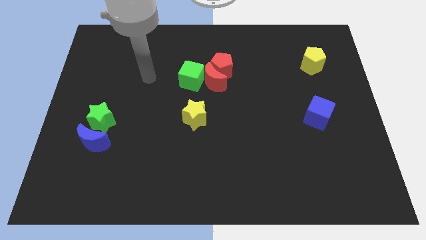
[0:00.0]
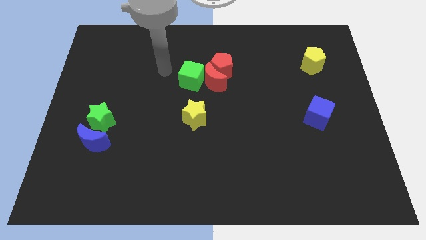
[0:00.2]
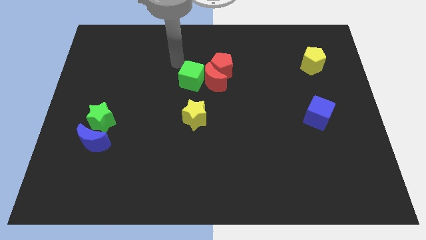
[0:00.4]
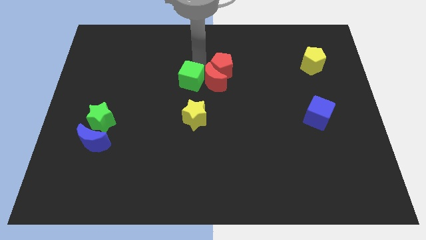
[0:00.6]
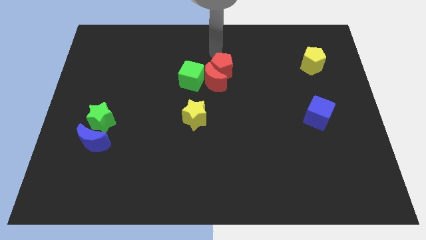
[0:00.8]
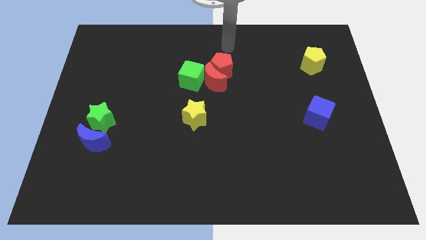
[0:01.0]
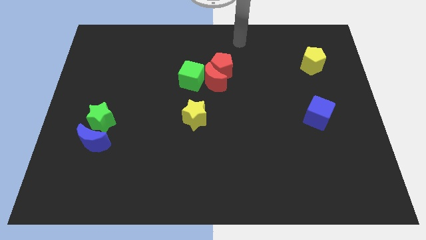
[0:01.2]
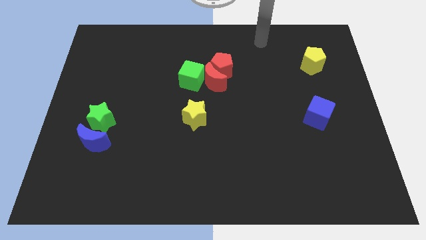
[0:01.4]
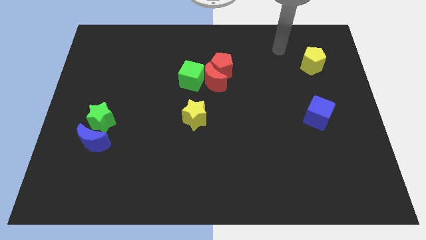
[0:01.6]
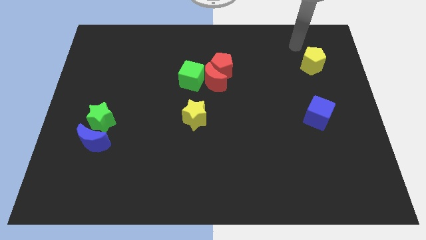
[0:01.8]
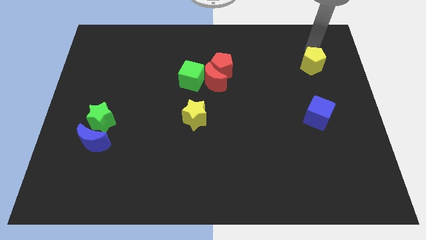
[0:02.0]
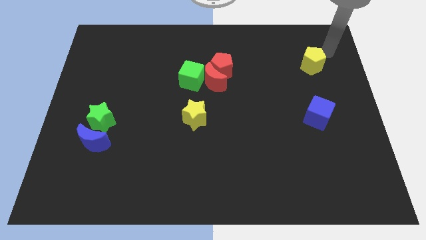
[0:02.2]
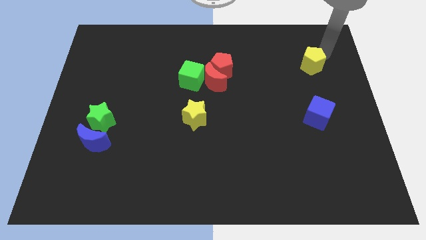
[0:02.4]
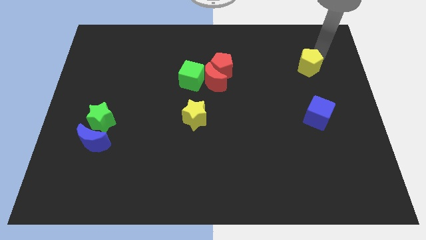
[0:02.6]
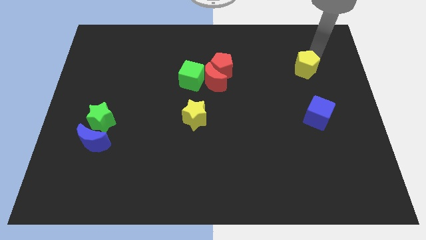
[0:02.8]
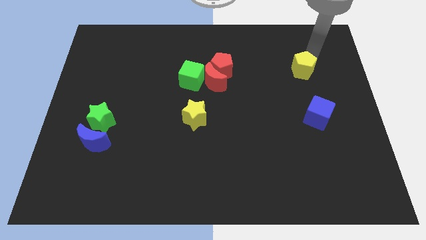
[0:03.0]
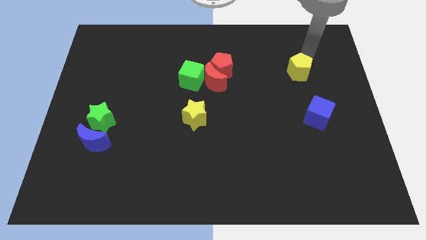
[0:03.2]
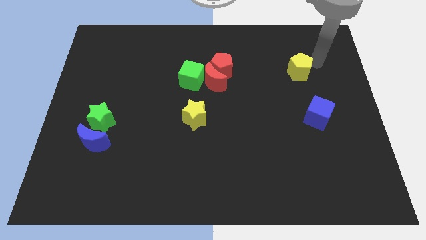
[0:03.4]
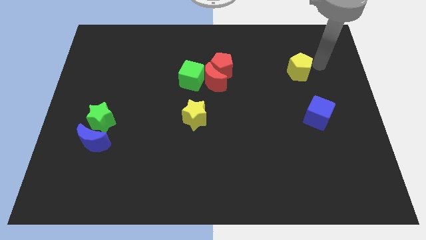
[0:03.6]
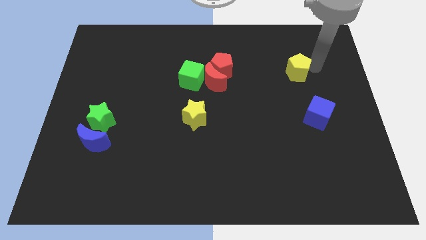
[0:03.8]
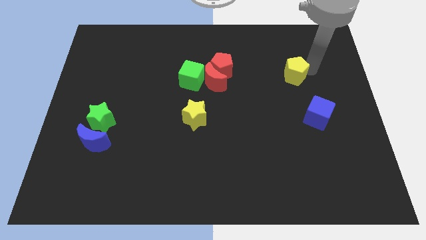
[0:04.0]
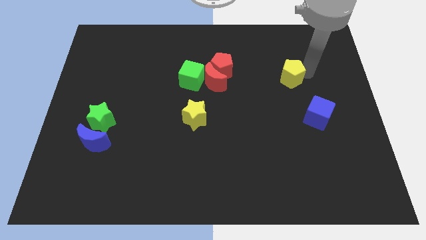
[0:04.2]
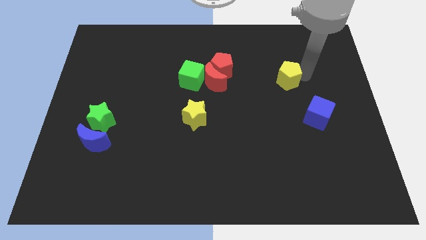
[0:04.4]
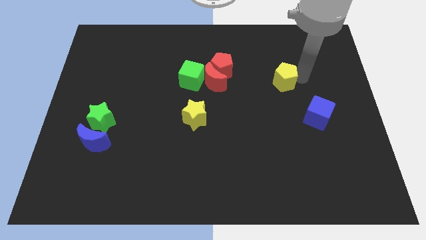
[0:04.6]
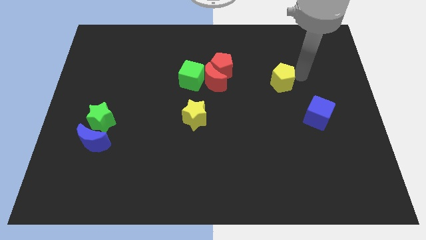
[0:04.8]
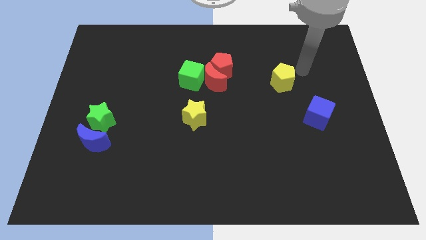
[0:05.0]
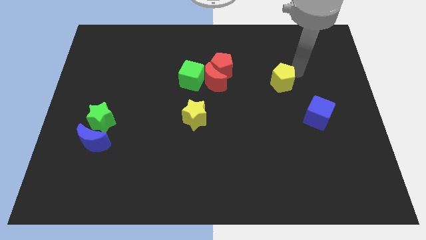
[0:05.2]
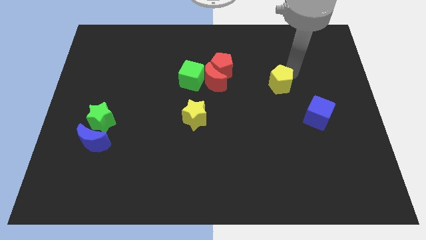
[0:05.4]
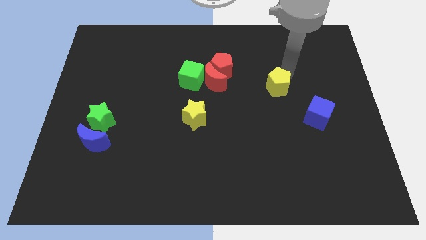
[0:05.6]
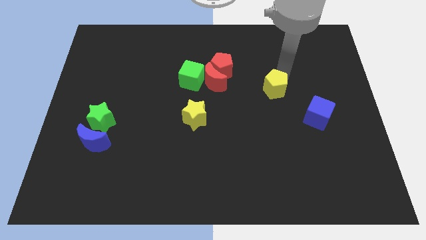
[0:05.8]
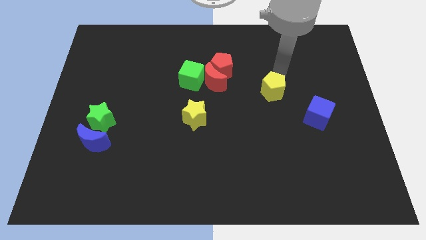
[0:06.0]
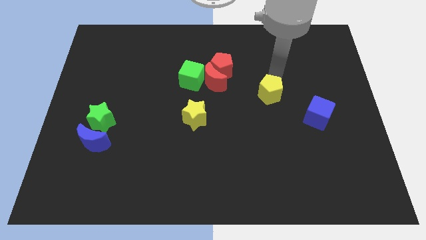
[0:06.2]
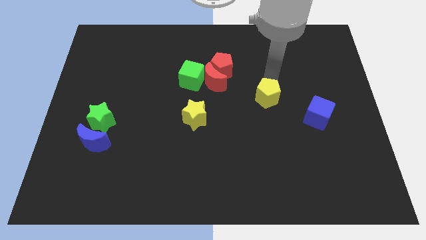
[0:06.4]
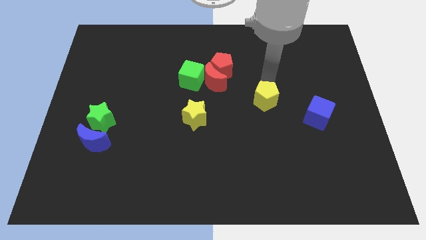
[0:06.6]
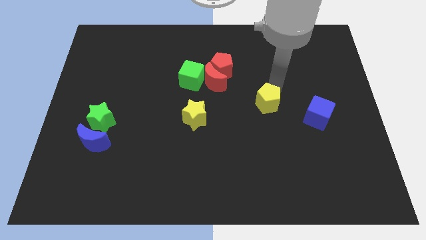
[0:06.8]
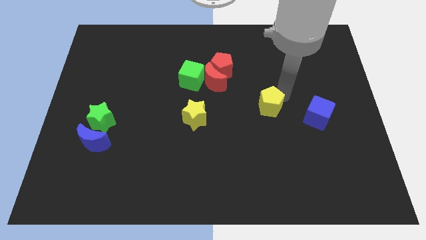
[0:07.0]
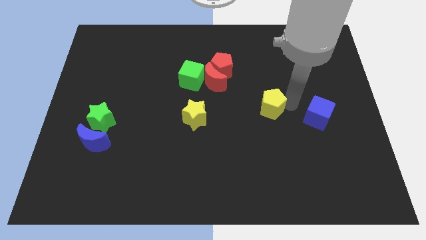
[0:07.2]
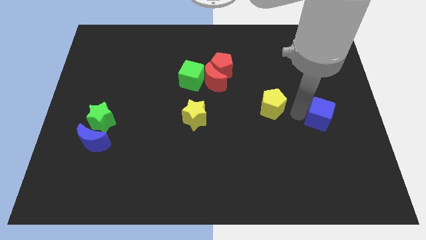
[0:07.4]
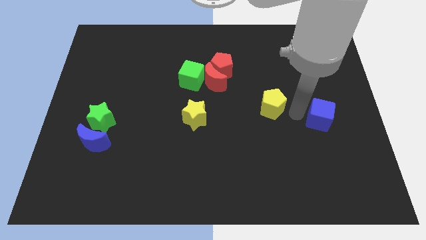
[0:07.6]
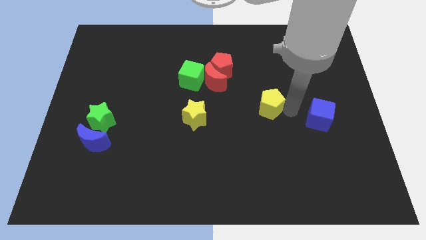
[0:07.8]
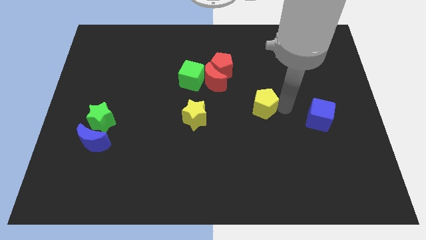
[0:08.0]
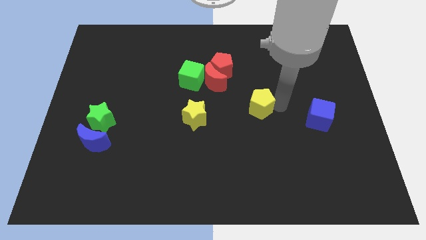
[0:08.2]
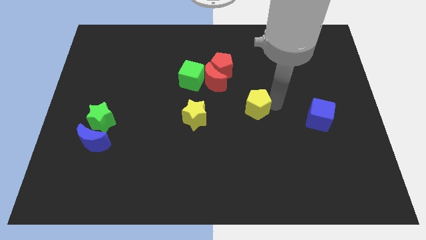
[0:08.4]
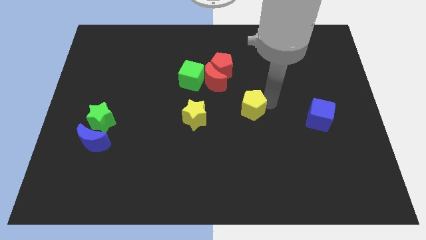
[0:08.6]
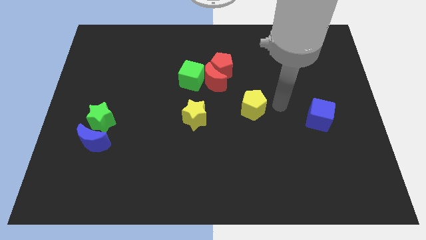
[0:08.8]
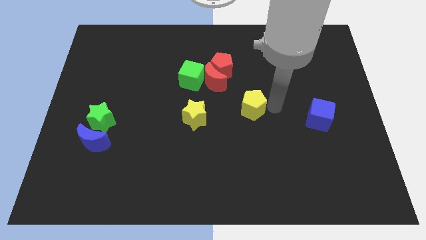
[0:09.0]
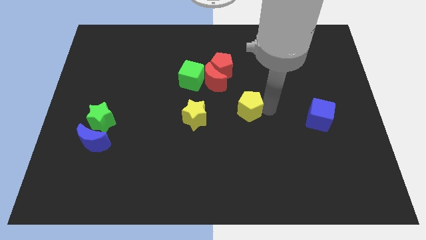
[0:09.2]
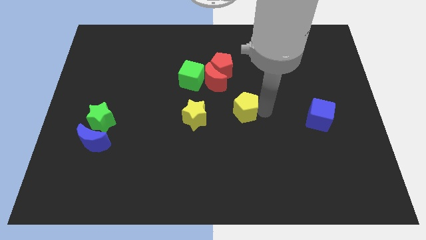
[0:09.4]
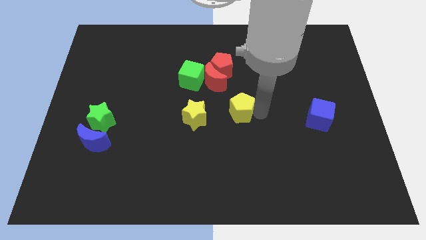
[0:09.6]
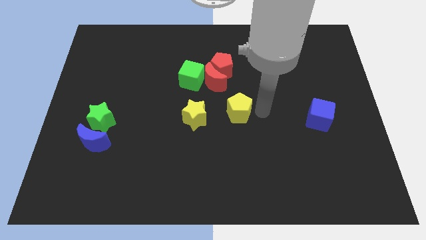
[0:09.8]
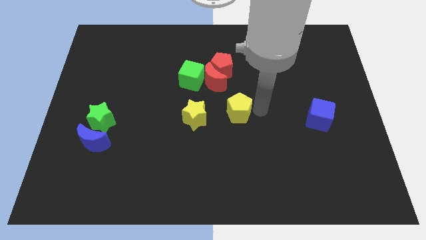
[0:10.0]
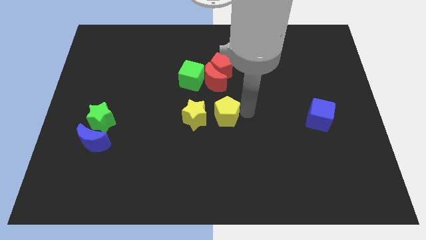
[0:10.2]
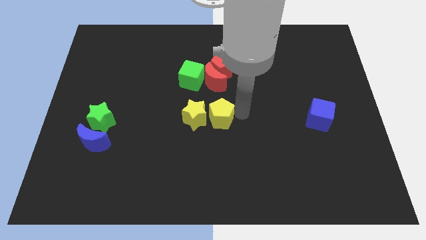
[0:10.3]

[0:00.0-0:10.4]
move the yellow pentagon towards the yellow star

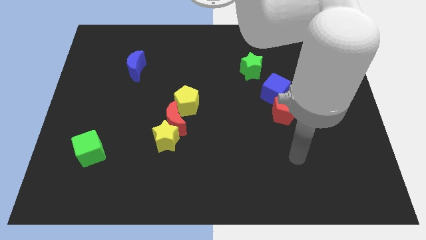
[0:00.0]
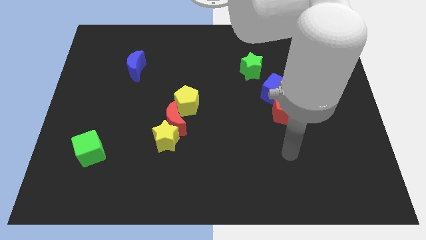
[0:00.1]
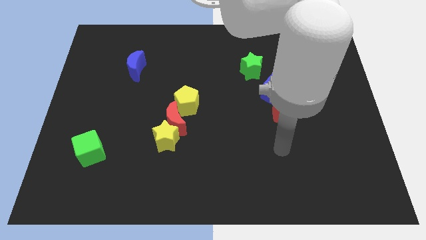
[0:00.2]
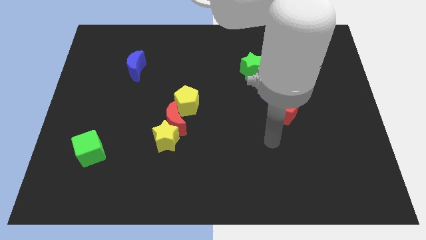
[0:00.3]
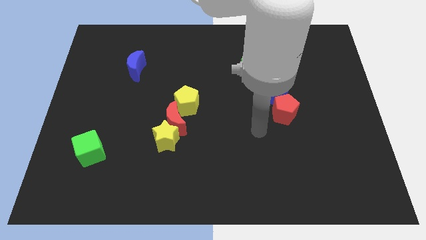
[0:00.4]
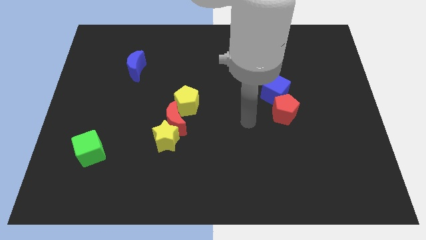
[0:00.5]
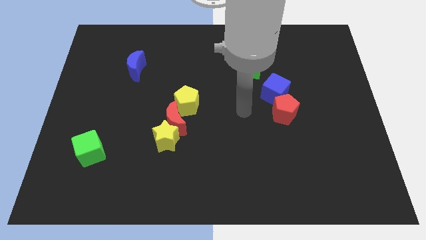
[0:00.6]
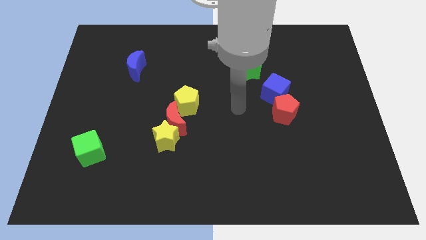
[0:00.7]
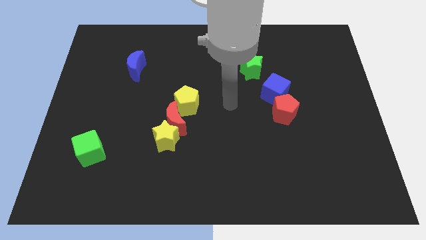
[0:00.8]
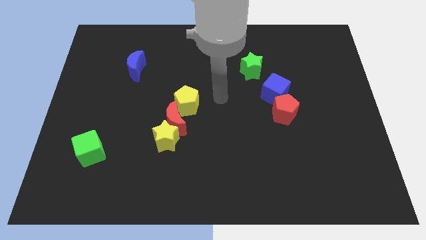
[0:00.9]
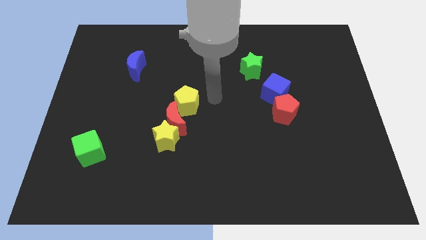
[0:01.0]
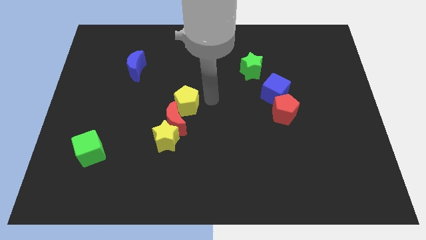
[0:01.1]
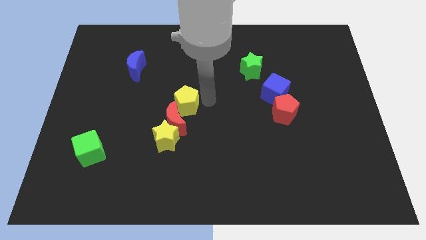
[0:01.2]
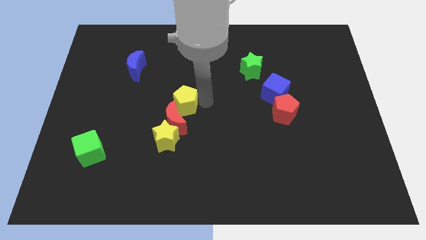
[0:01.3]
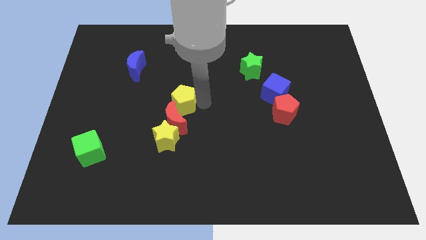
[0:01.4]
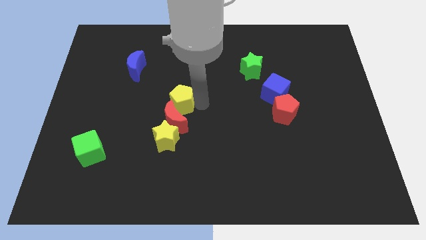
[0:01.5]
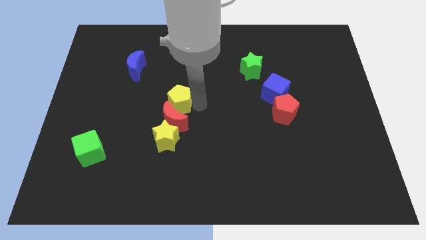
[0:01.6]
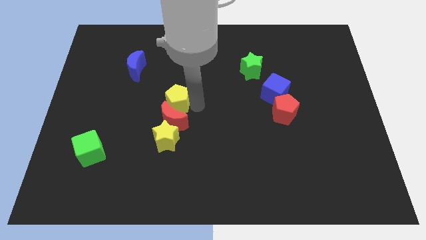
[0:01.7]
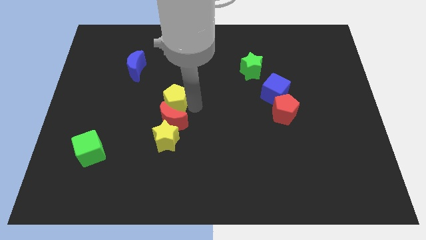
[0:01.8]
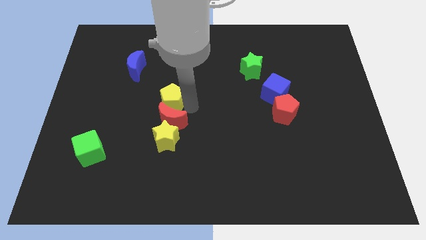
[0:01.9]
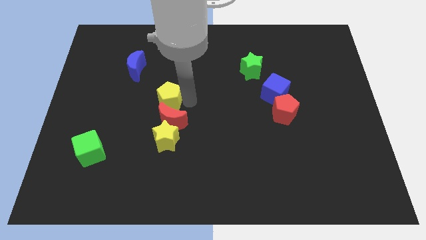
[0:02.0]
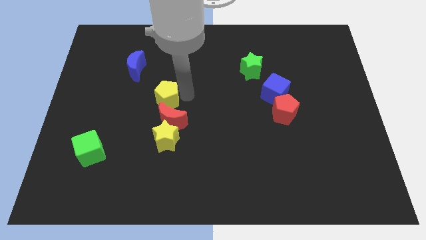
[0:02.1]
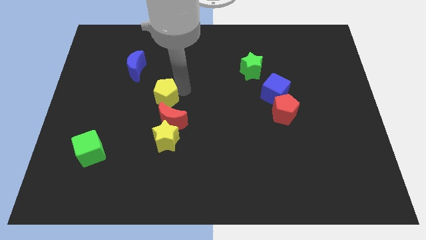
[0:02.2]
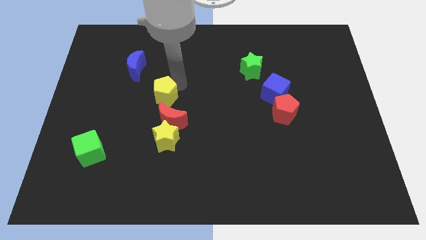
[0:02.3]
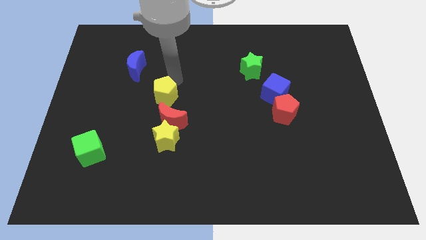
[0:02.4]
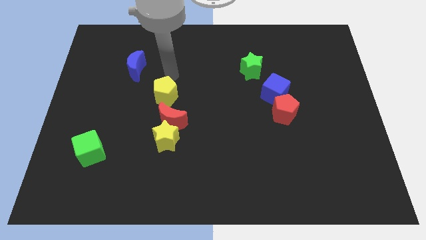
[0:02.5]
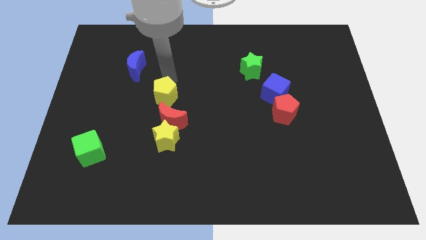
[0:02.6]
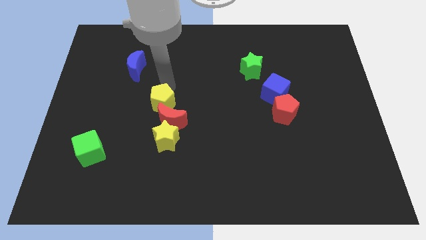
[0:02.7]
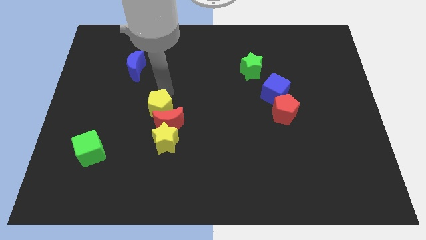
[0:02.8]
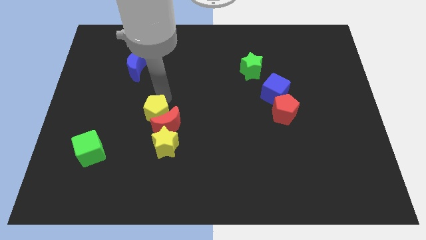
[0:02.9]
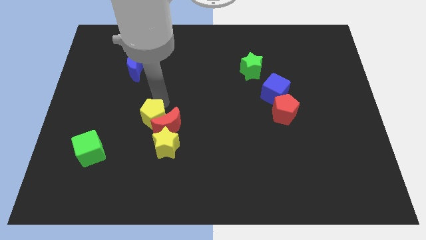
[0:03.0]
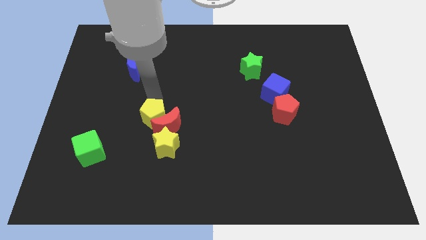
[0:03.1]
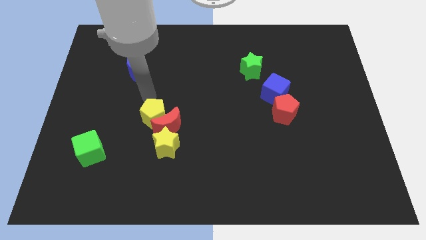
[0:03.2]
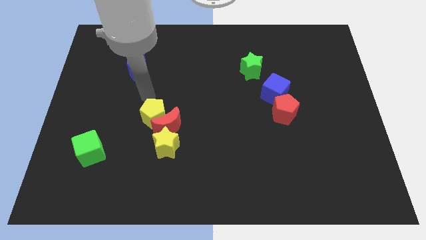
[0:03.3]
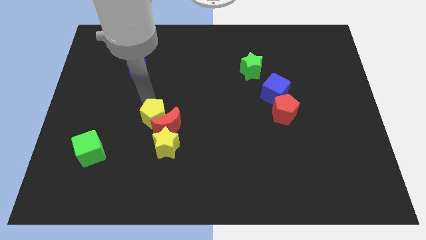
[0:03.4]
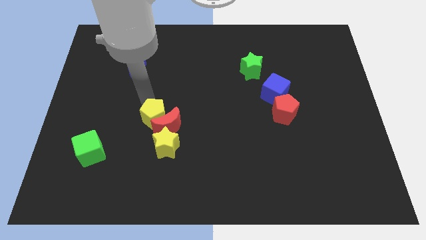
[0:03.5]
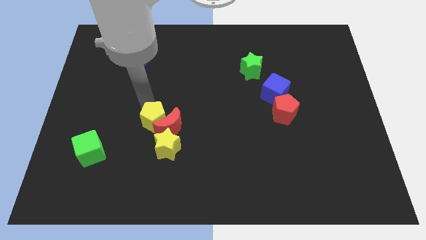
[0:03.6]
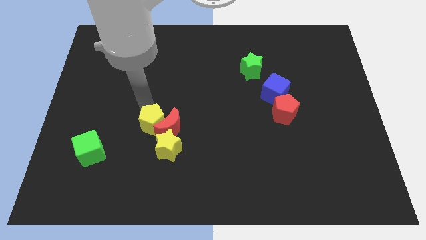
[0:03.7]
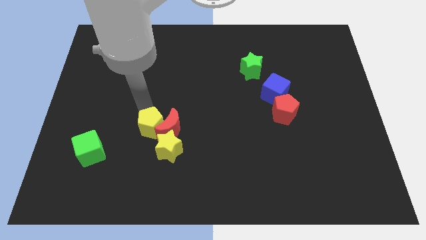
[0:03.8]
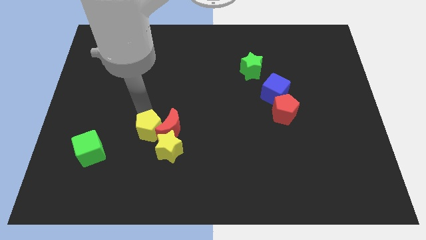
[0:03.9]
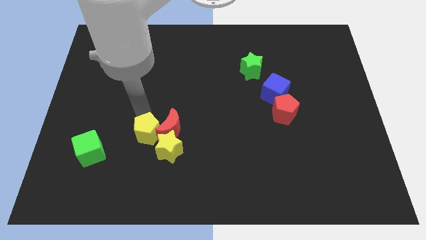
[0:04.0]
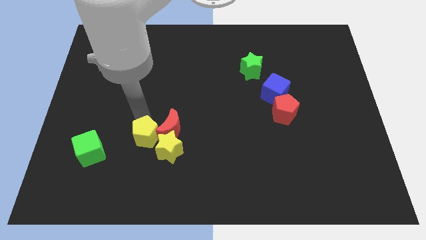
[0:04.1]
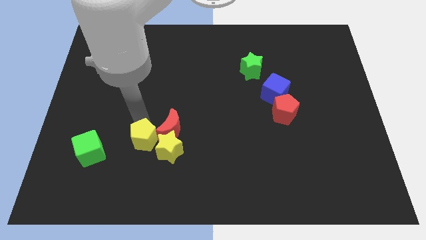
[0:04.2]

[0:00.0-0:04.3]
put the yellow pentagon towards the yellow star
